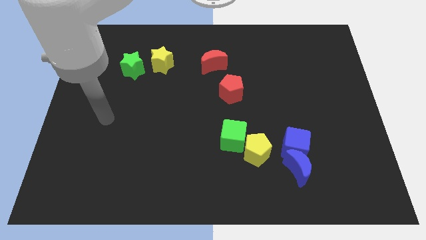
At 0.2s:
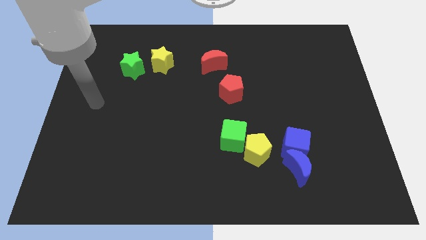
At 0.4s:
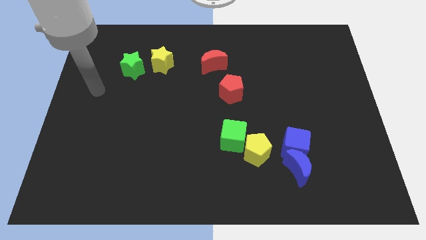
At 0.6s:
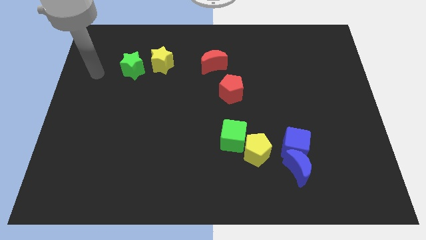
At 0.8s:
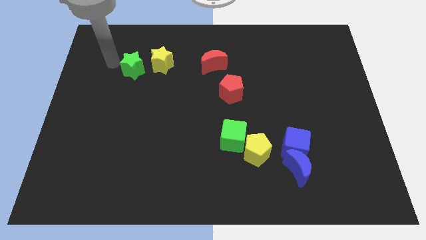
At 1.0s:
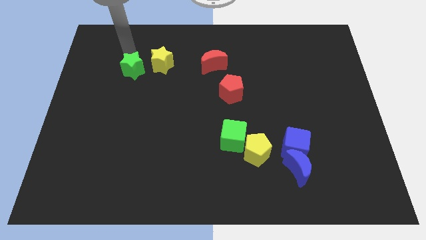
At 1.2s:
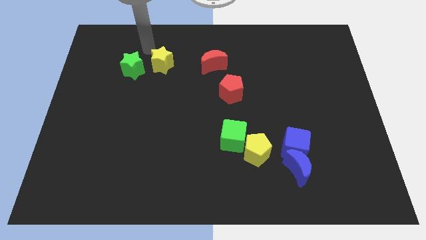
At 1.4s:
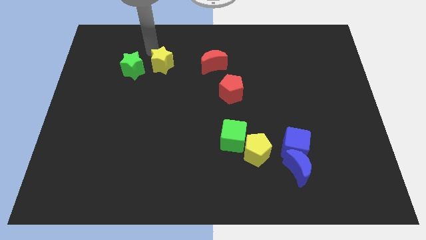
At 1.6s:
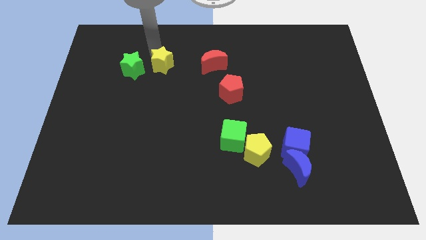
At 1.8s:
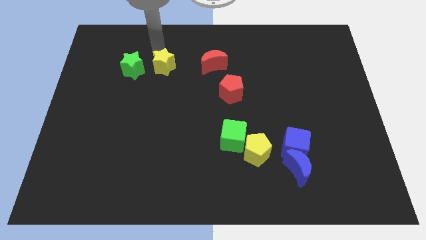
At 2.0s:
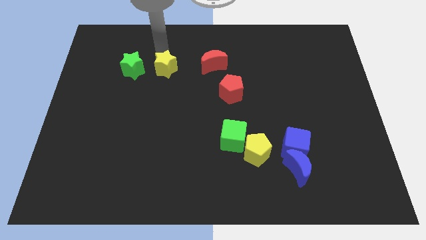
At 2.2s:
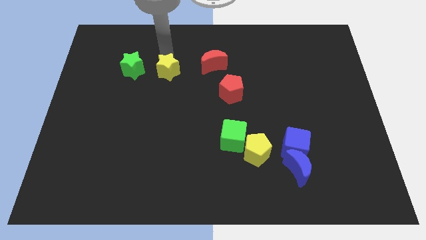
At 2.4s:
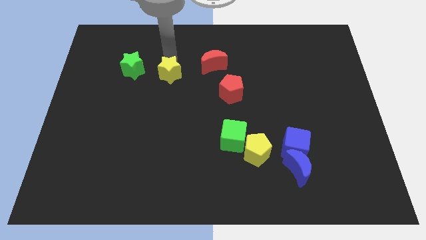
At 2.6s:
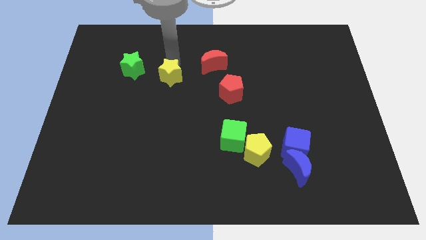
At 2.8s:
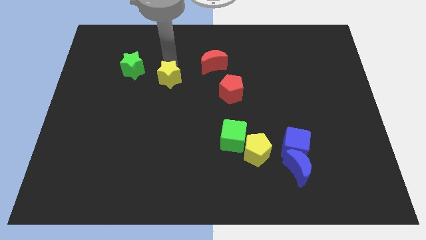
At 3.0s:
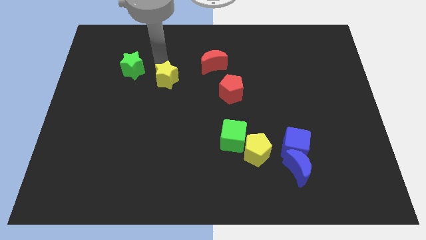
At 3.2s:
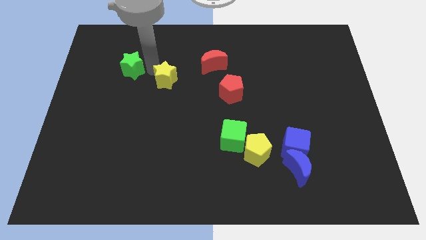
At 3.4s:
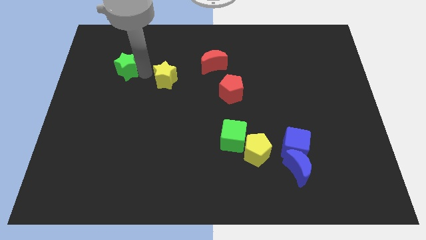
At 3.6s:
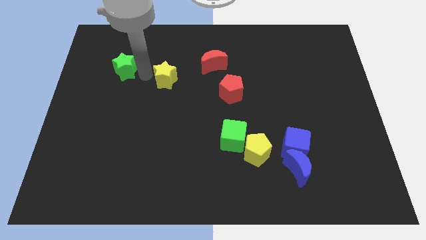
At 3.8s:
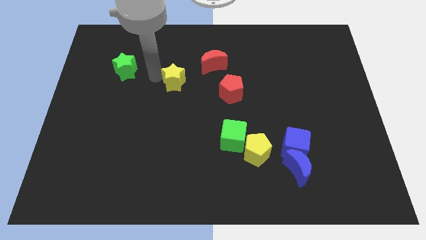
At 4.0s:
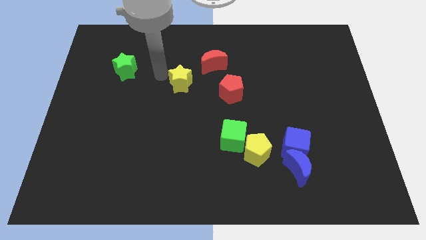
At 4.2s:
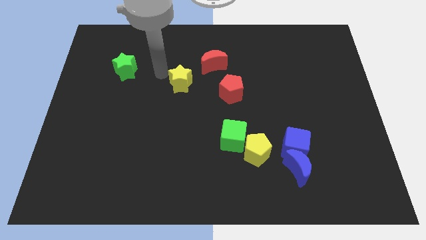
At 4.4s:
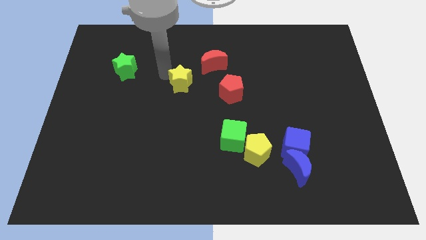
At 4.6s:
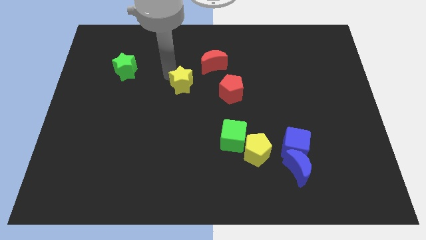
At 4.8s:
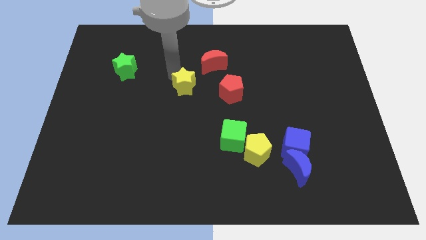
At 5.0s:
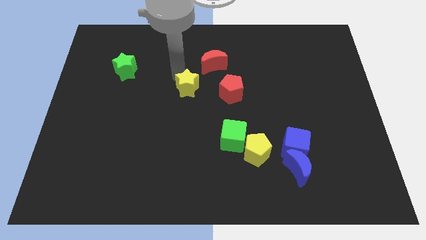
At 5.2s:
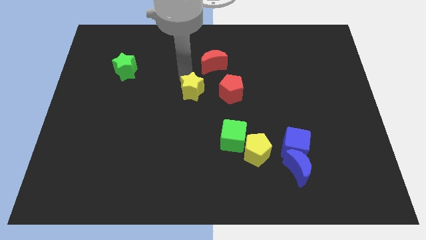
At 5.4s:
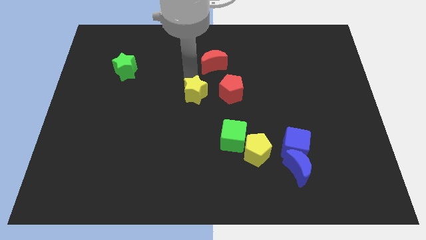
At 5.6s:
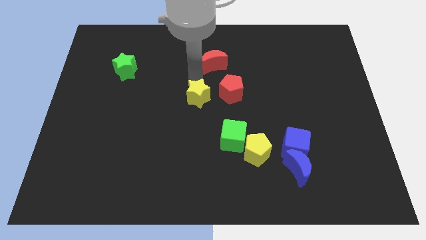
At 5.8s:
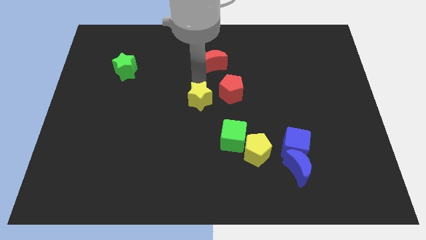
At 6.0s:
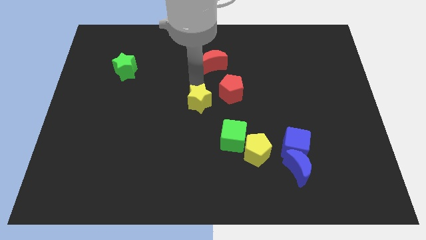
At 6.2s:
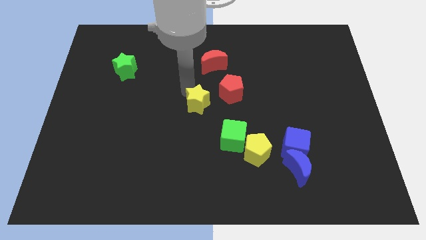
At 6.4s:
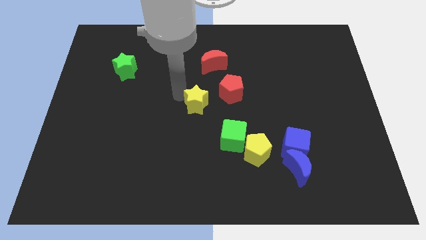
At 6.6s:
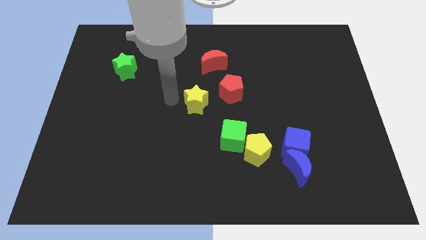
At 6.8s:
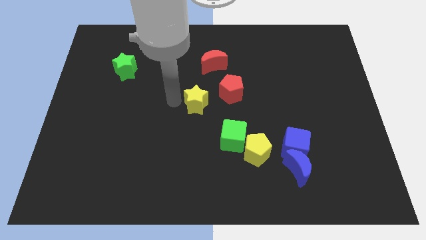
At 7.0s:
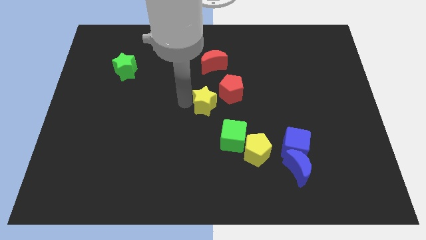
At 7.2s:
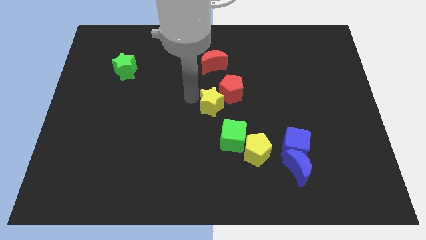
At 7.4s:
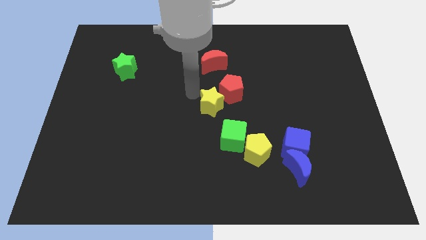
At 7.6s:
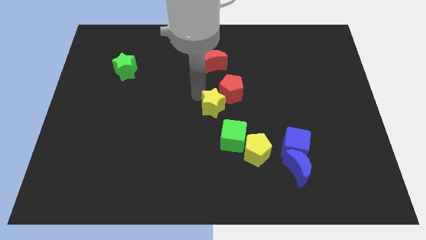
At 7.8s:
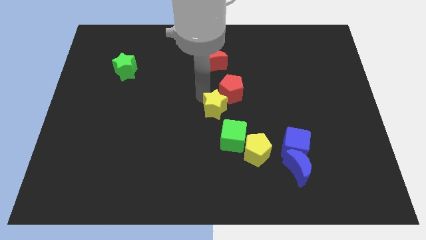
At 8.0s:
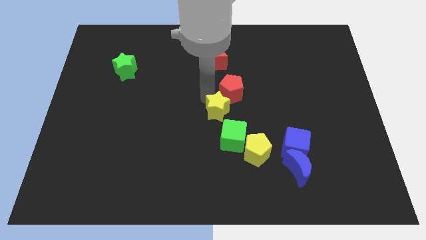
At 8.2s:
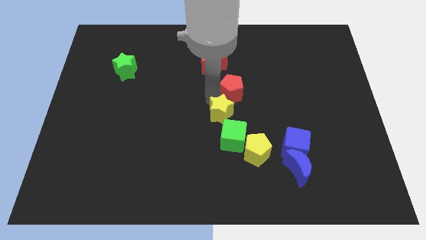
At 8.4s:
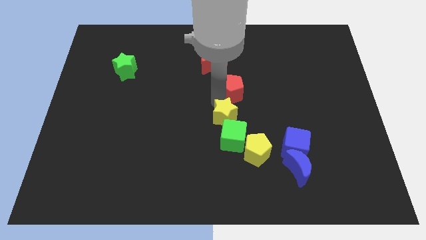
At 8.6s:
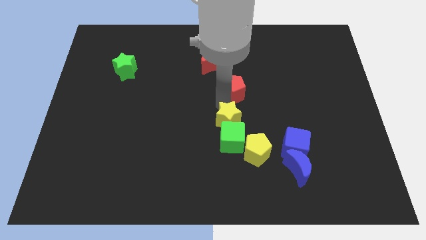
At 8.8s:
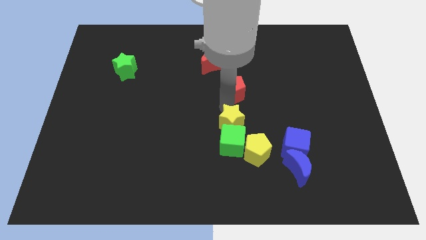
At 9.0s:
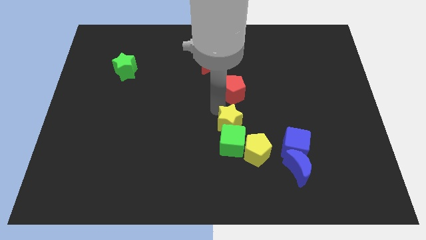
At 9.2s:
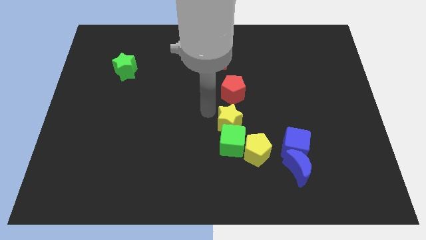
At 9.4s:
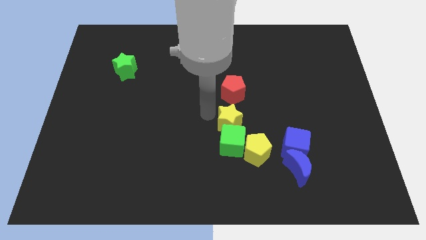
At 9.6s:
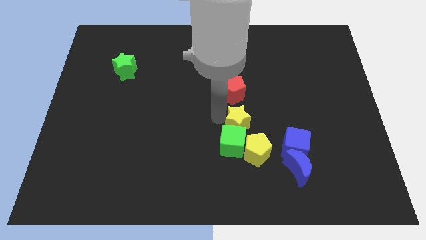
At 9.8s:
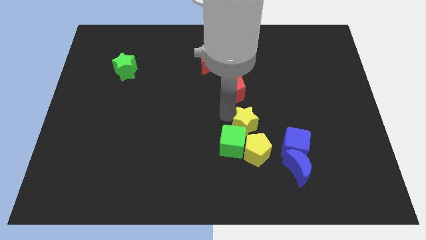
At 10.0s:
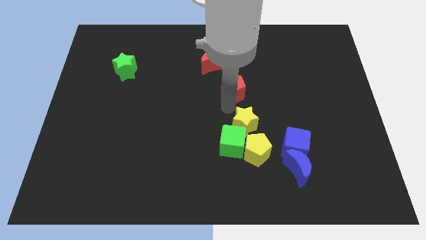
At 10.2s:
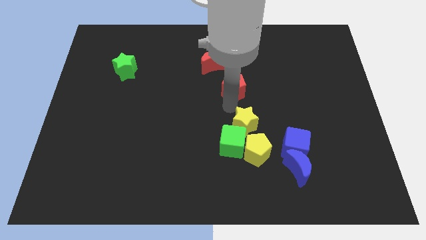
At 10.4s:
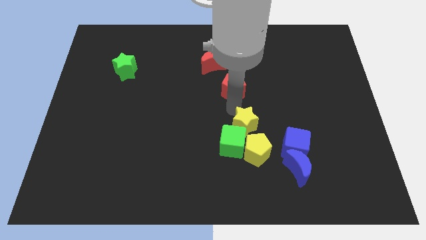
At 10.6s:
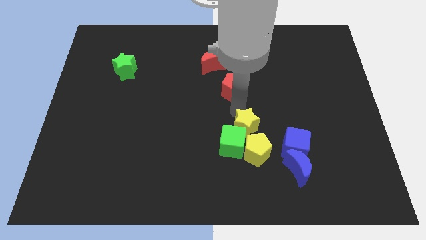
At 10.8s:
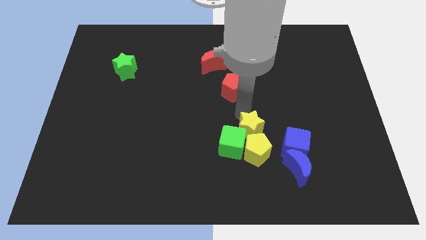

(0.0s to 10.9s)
put the yellow star next to the yellow pentagon

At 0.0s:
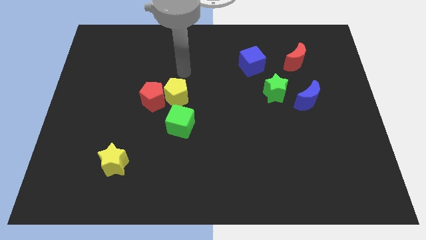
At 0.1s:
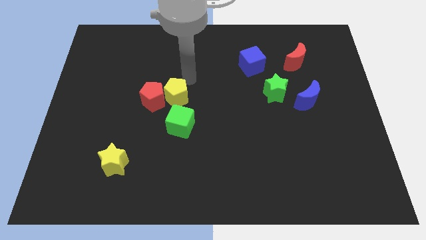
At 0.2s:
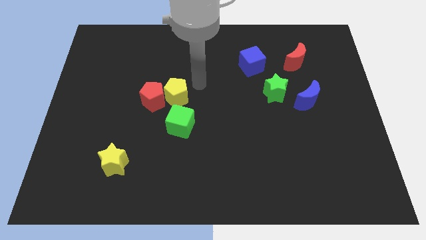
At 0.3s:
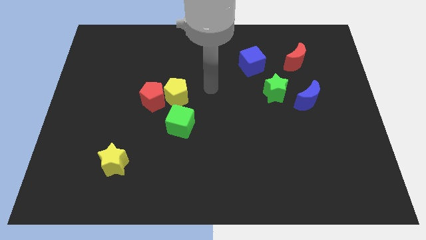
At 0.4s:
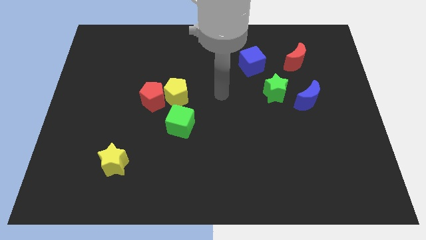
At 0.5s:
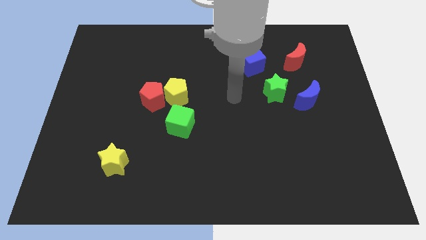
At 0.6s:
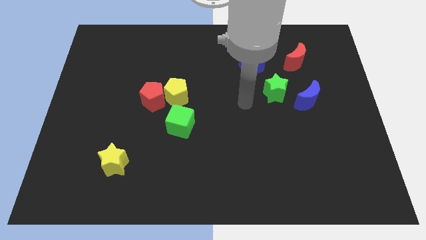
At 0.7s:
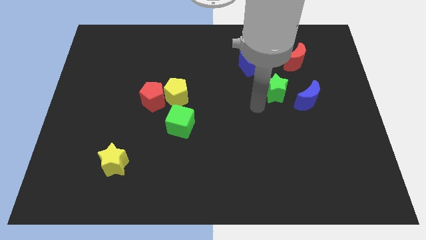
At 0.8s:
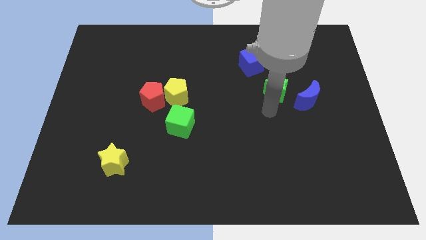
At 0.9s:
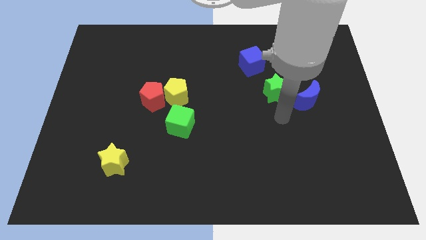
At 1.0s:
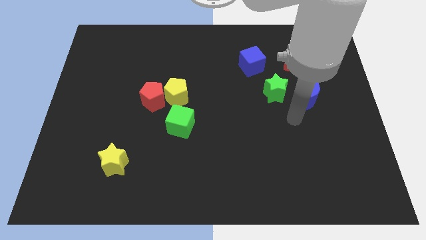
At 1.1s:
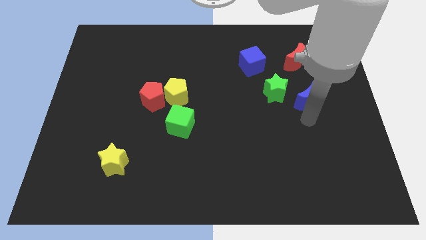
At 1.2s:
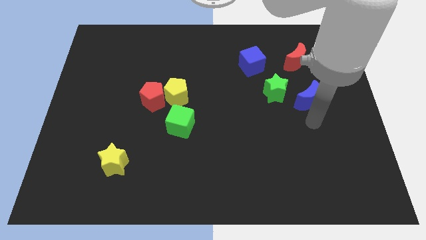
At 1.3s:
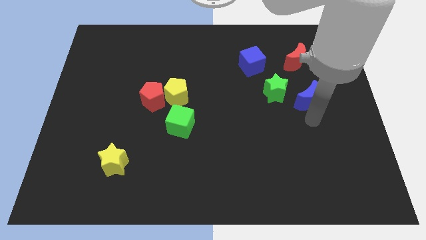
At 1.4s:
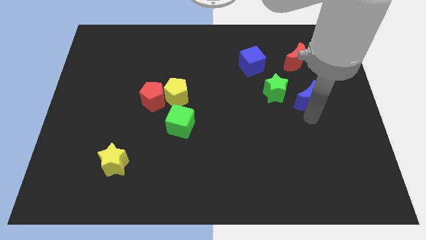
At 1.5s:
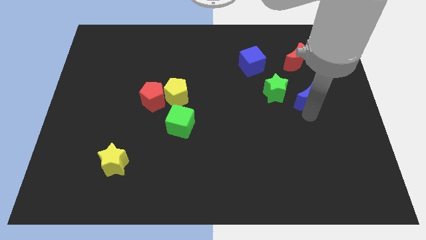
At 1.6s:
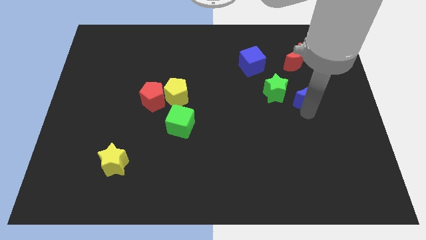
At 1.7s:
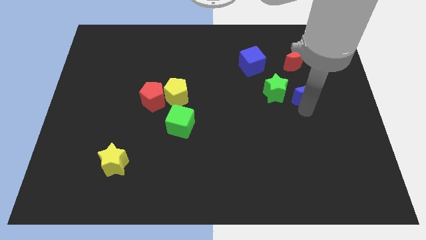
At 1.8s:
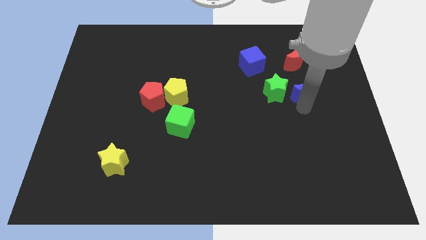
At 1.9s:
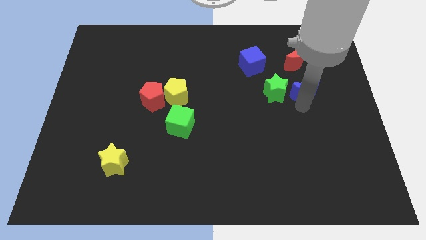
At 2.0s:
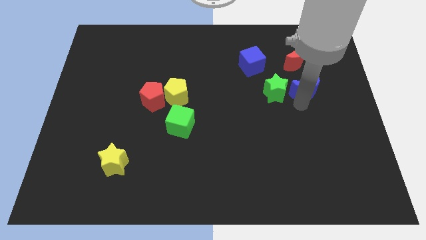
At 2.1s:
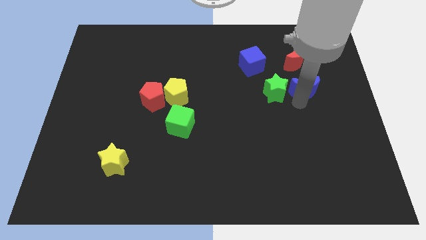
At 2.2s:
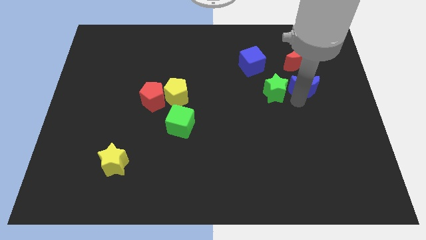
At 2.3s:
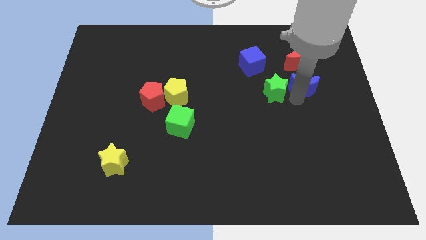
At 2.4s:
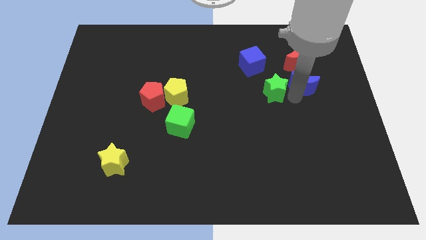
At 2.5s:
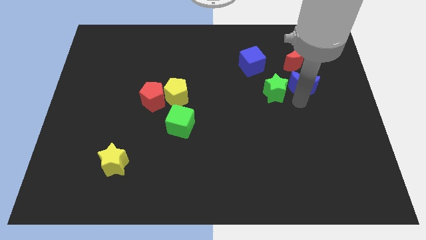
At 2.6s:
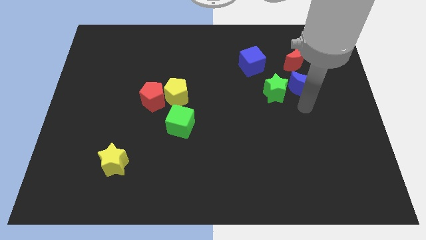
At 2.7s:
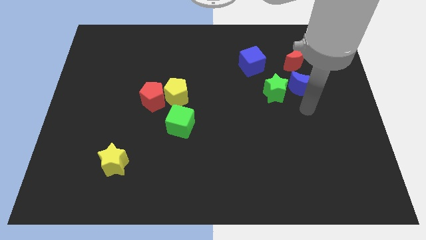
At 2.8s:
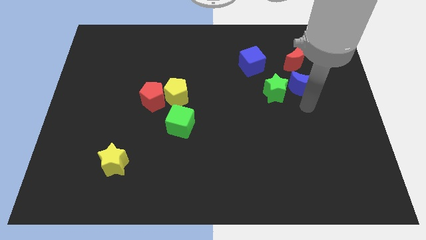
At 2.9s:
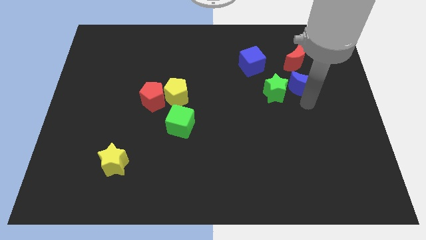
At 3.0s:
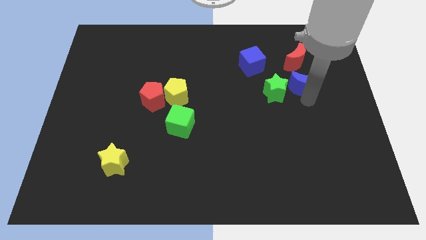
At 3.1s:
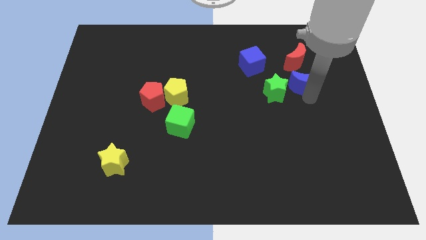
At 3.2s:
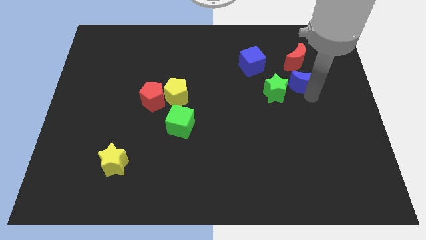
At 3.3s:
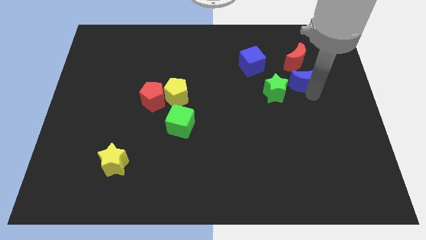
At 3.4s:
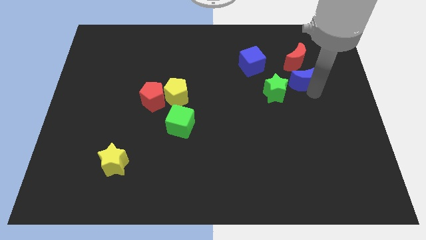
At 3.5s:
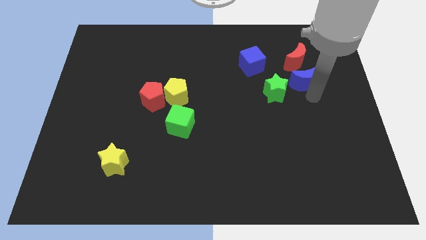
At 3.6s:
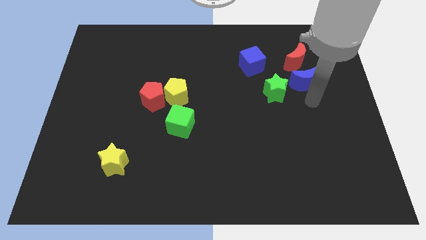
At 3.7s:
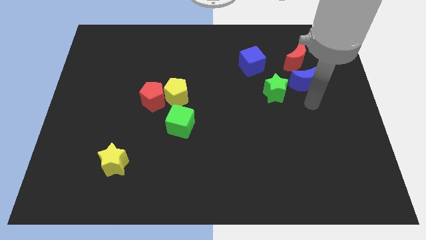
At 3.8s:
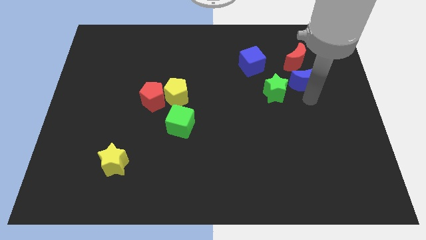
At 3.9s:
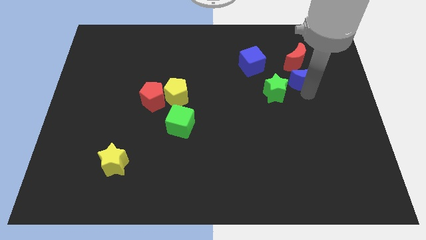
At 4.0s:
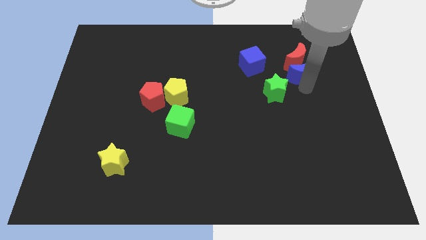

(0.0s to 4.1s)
move the blue moon to the red moon
